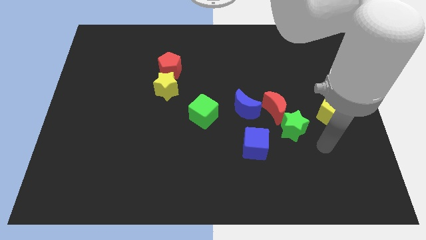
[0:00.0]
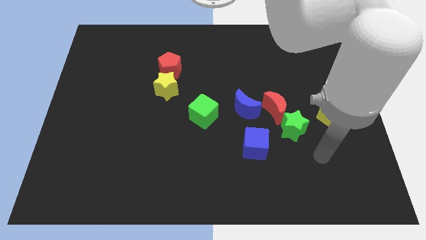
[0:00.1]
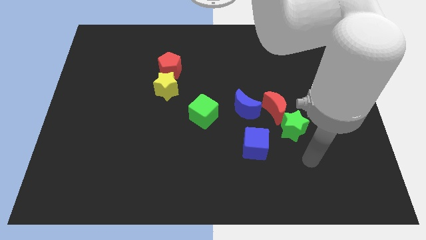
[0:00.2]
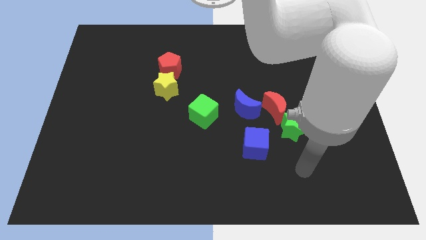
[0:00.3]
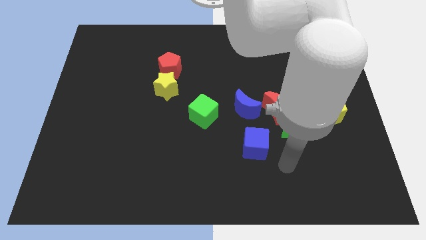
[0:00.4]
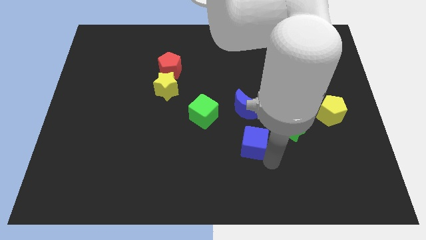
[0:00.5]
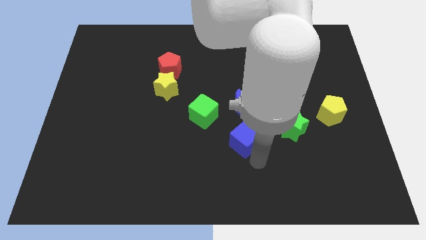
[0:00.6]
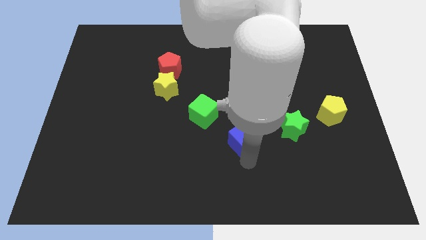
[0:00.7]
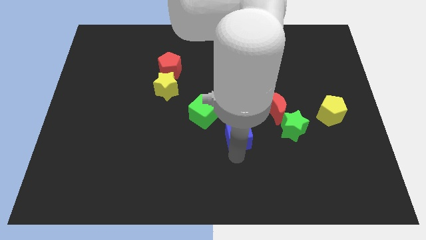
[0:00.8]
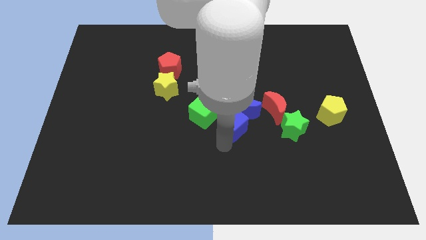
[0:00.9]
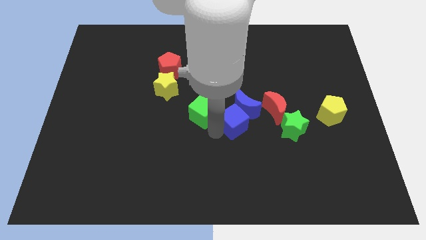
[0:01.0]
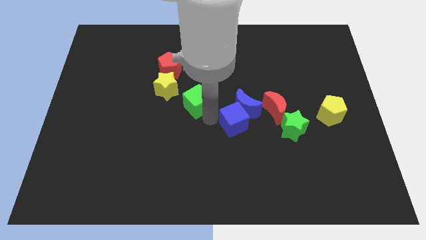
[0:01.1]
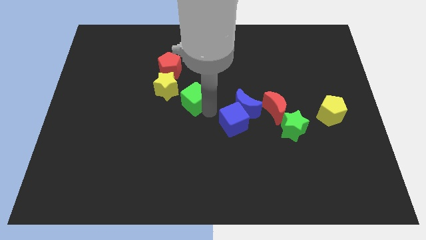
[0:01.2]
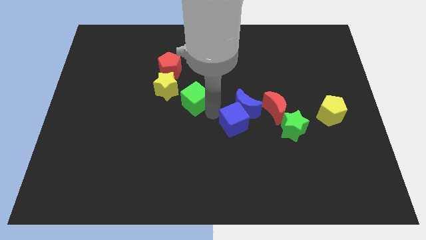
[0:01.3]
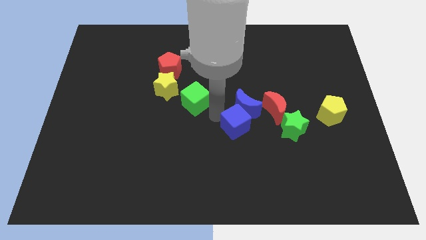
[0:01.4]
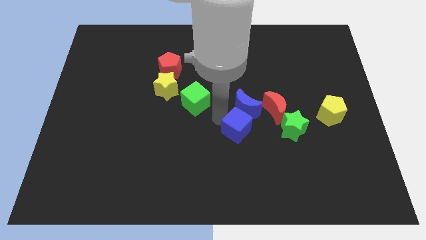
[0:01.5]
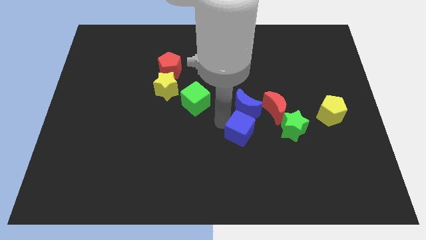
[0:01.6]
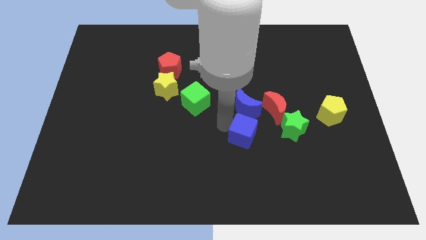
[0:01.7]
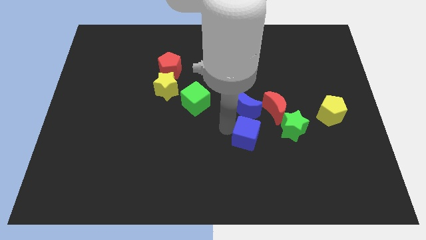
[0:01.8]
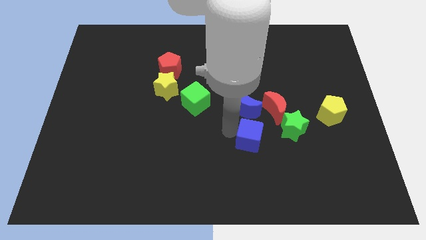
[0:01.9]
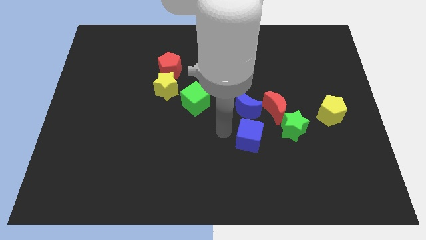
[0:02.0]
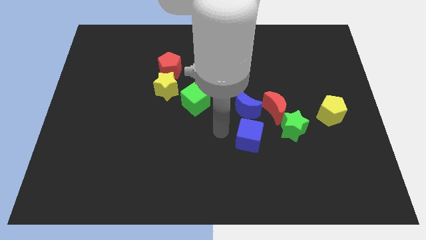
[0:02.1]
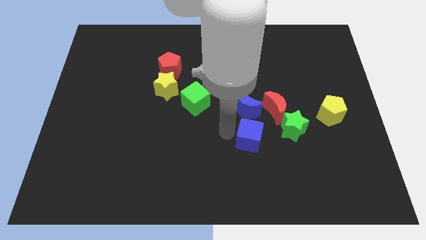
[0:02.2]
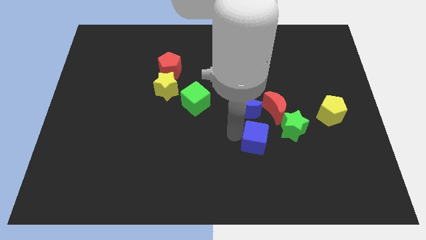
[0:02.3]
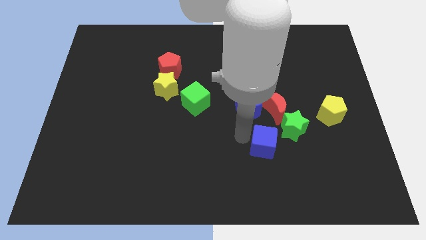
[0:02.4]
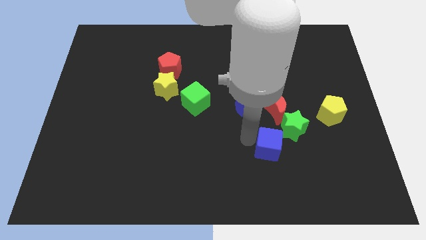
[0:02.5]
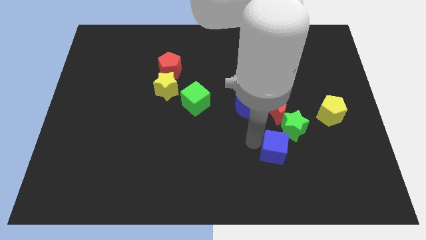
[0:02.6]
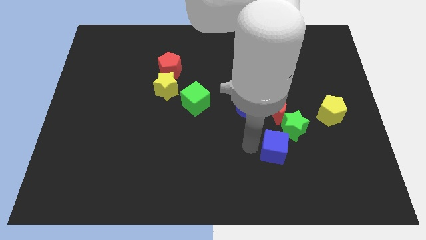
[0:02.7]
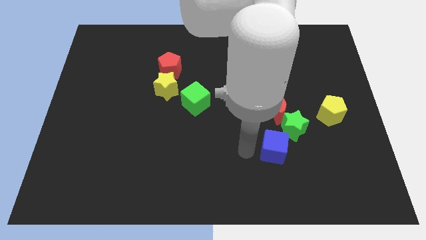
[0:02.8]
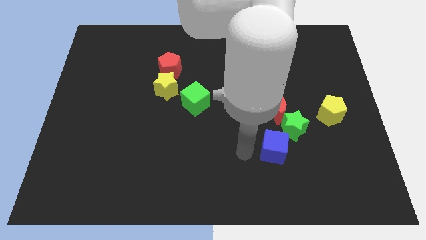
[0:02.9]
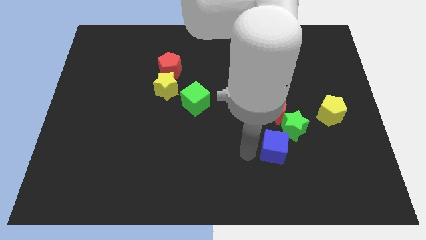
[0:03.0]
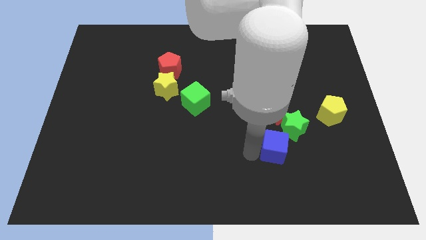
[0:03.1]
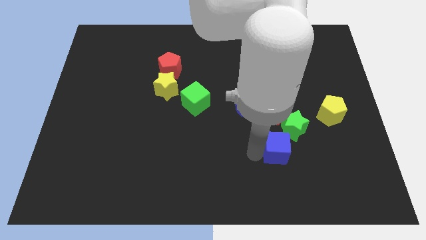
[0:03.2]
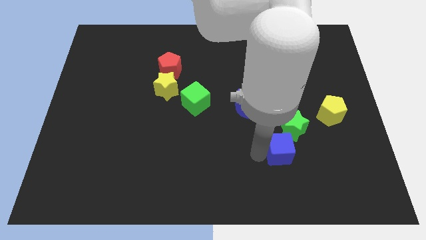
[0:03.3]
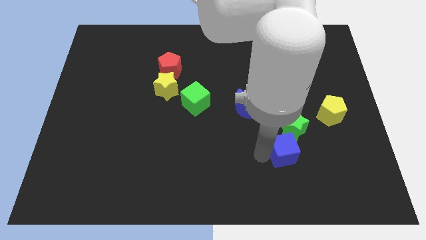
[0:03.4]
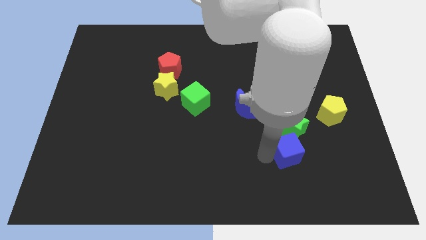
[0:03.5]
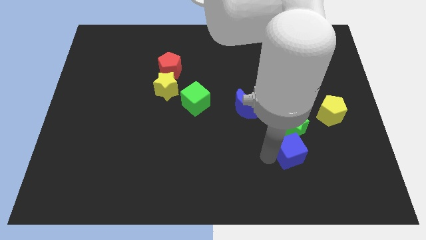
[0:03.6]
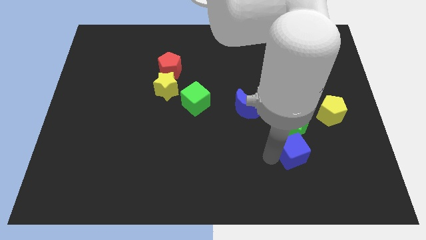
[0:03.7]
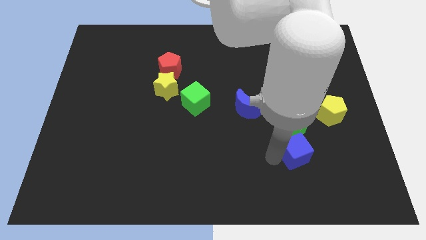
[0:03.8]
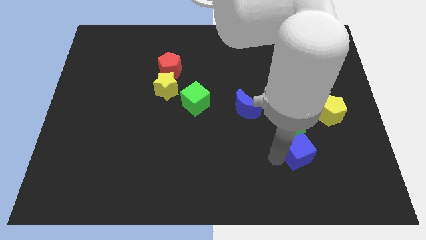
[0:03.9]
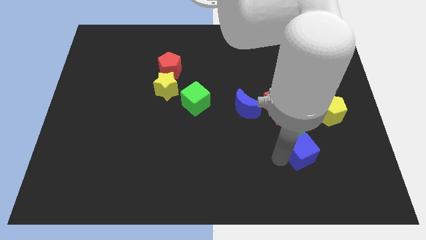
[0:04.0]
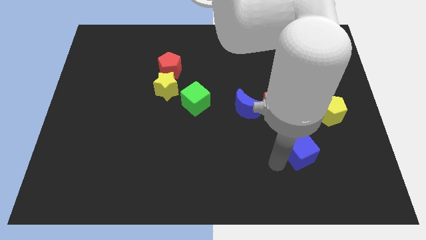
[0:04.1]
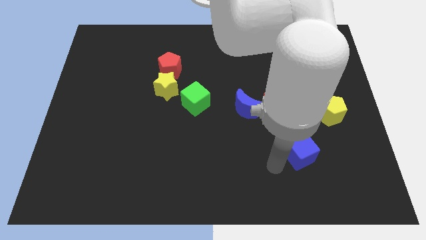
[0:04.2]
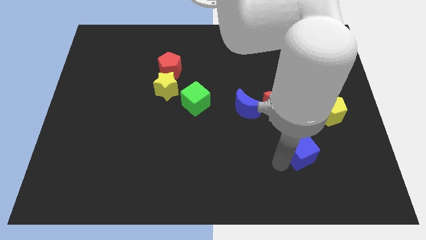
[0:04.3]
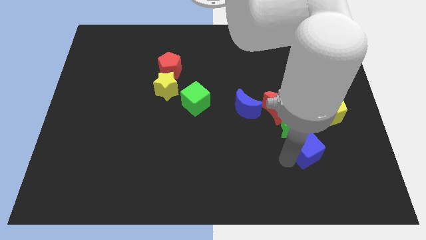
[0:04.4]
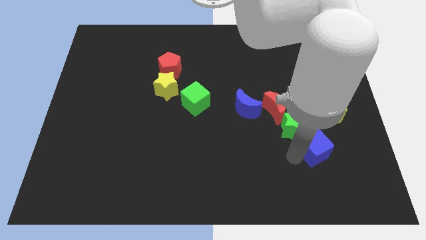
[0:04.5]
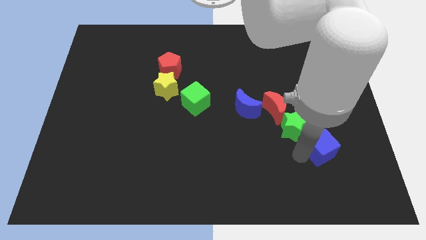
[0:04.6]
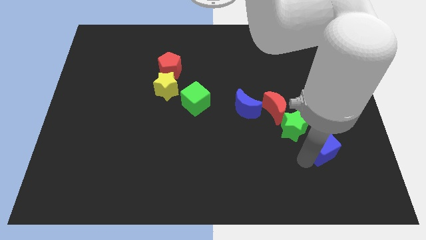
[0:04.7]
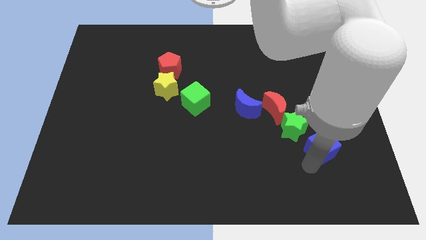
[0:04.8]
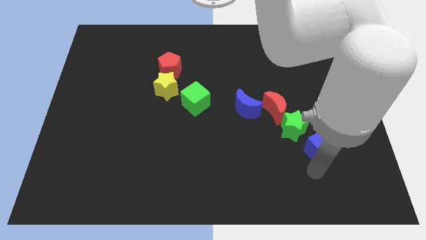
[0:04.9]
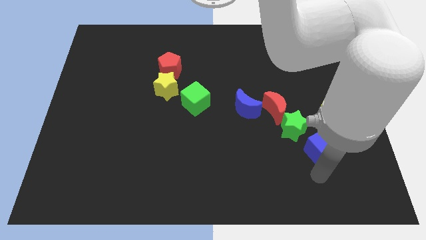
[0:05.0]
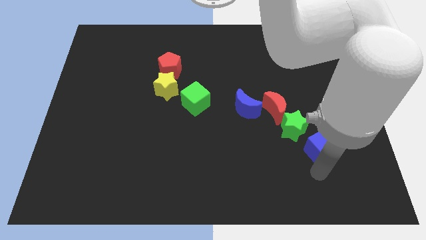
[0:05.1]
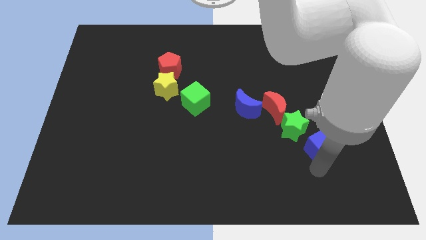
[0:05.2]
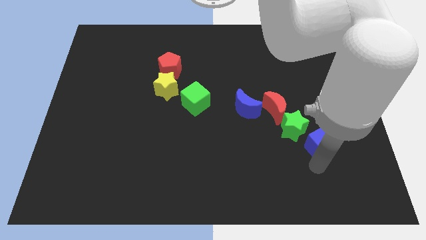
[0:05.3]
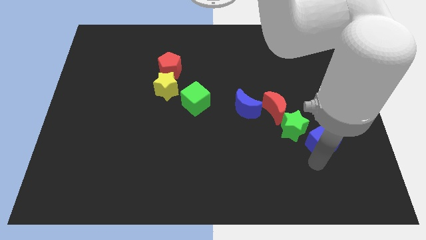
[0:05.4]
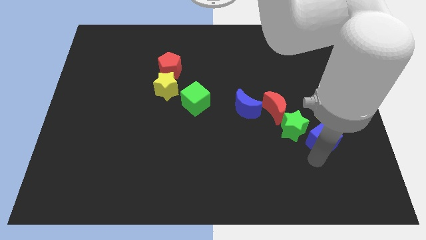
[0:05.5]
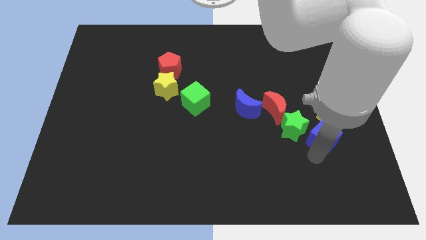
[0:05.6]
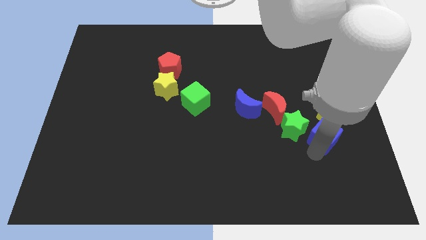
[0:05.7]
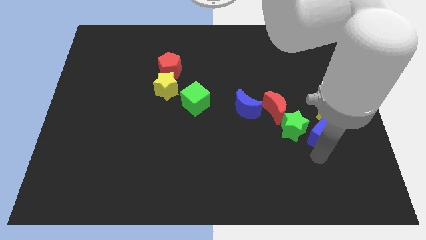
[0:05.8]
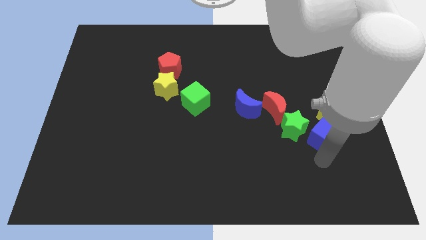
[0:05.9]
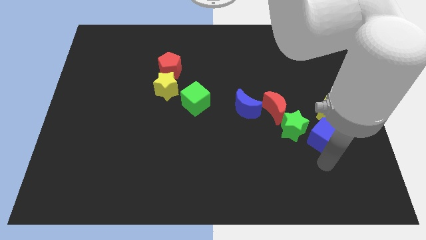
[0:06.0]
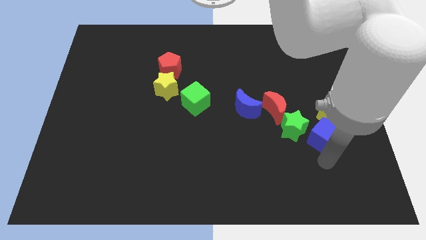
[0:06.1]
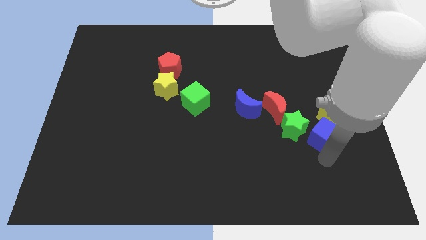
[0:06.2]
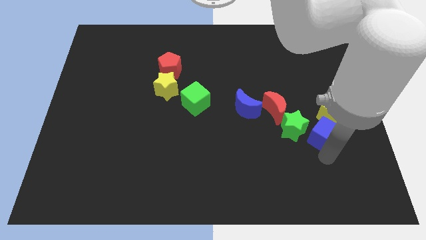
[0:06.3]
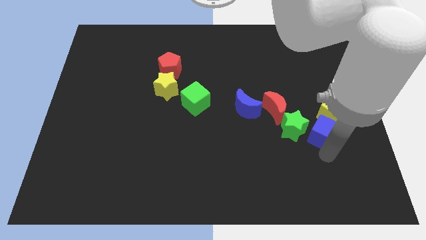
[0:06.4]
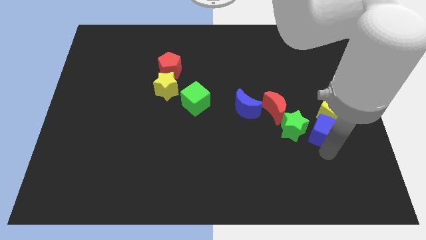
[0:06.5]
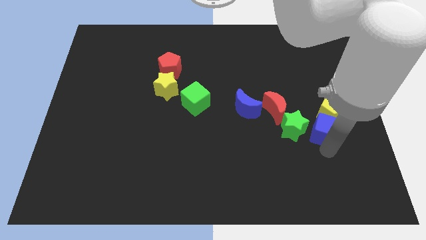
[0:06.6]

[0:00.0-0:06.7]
put the blue cube towards the yellow pentagon

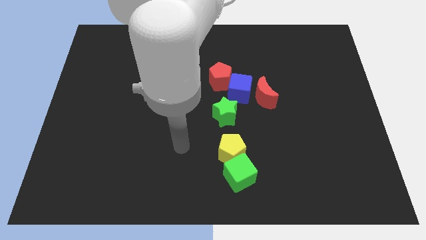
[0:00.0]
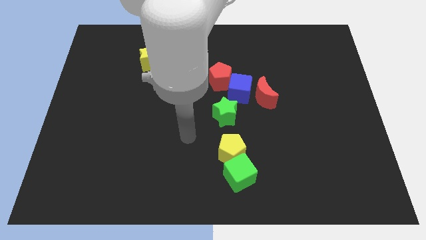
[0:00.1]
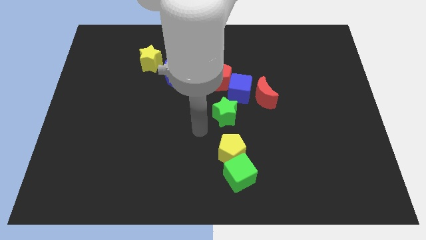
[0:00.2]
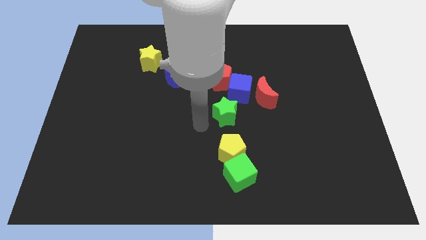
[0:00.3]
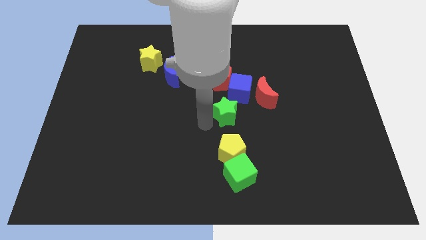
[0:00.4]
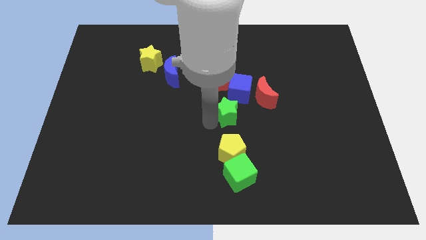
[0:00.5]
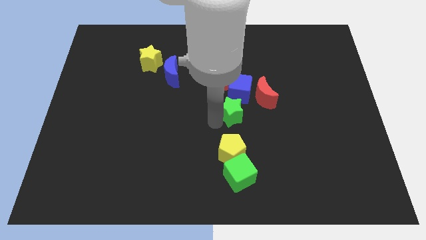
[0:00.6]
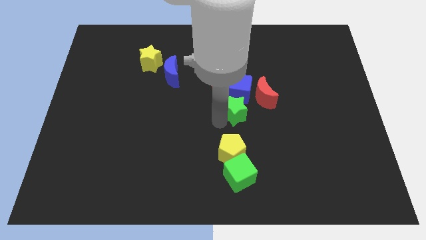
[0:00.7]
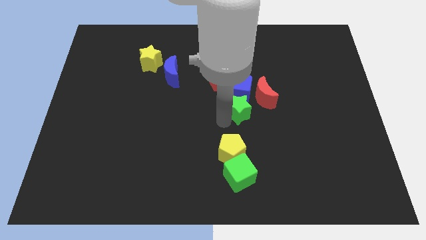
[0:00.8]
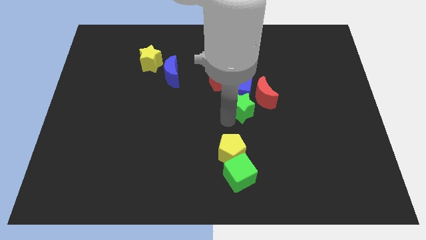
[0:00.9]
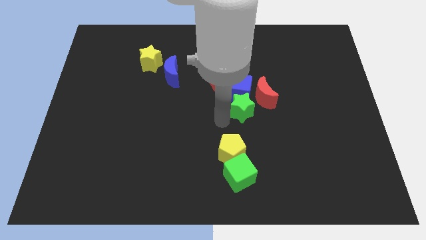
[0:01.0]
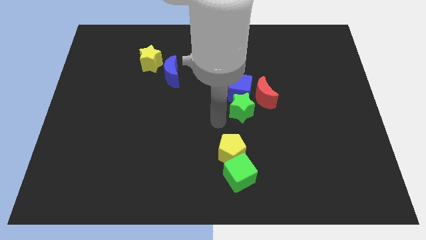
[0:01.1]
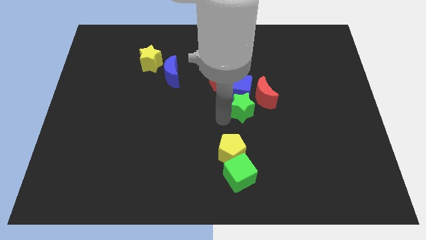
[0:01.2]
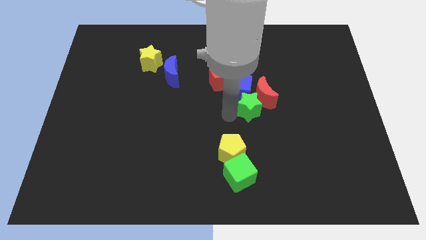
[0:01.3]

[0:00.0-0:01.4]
slide the green star close to the red moon
